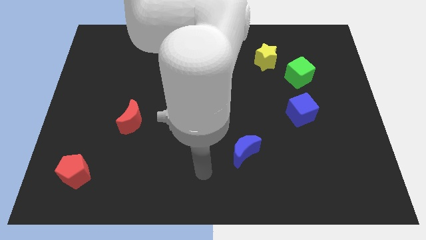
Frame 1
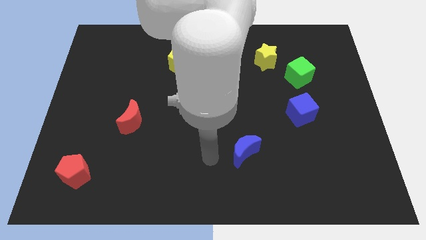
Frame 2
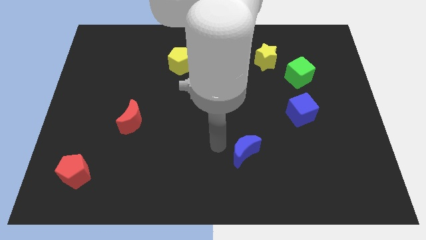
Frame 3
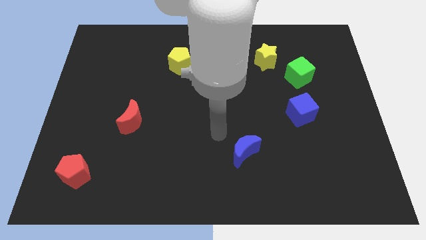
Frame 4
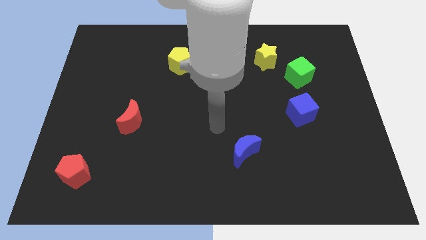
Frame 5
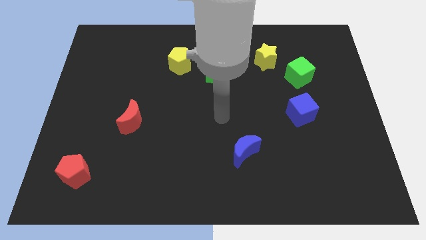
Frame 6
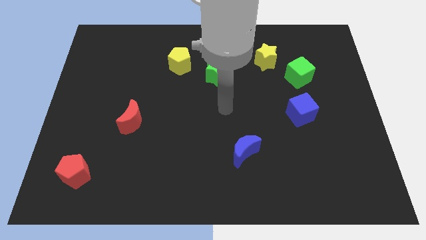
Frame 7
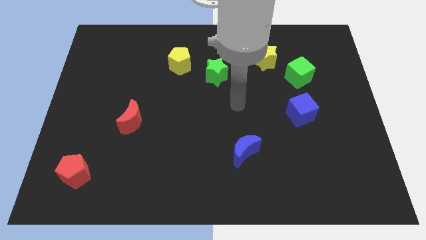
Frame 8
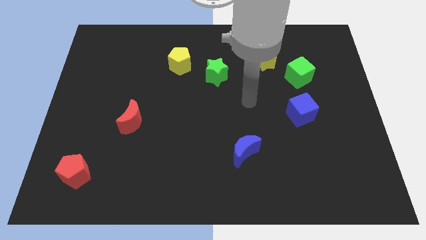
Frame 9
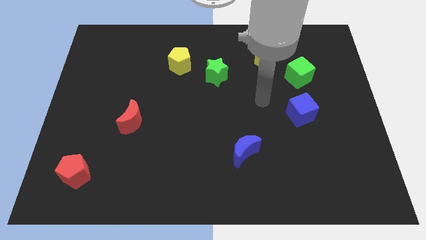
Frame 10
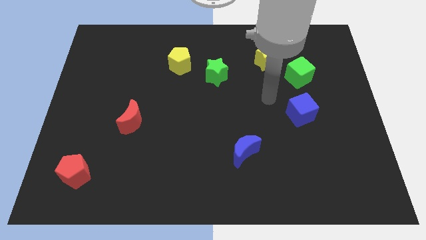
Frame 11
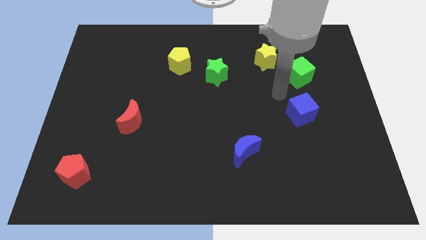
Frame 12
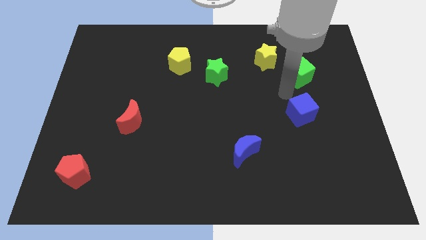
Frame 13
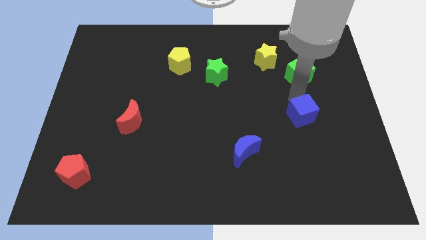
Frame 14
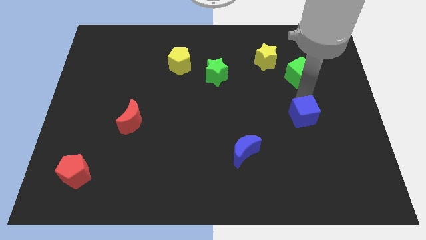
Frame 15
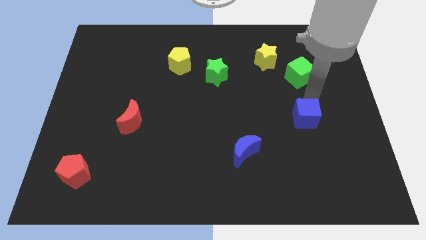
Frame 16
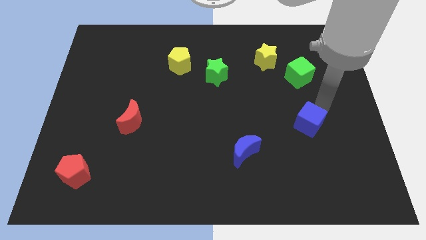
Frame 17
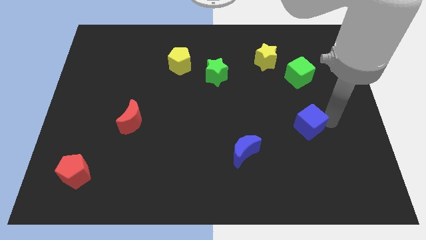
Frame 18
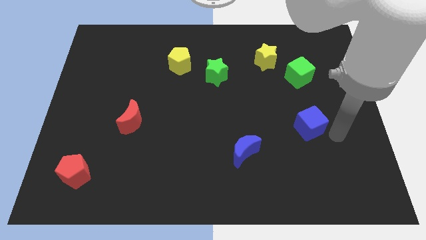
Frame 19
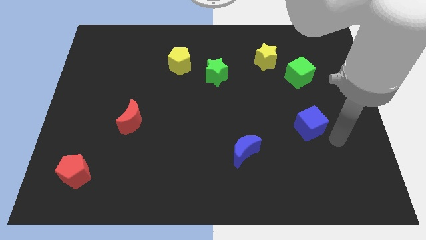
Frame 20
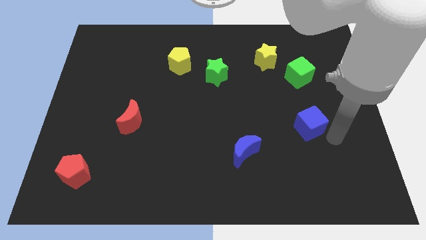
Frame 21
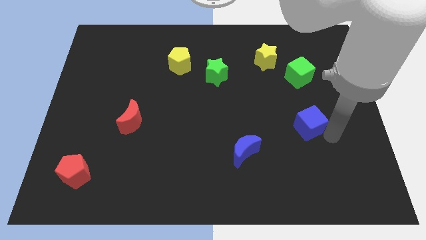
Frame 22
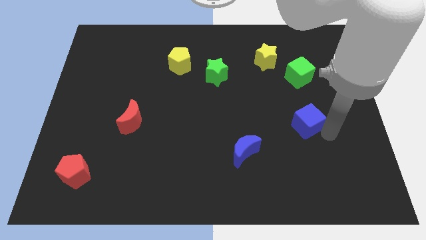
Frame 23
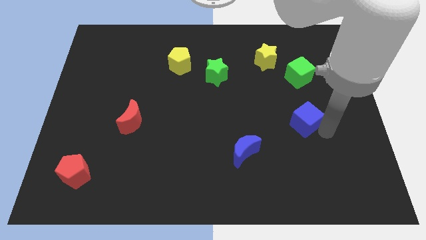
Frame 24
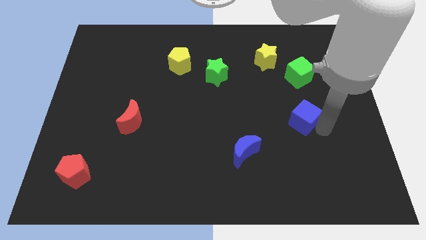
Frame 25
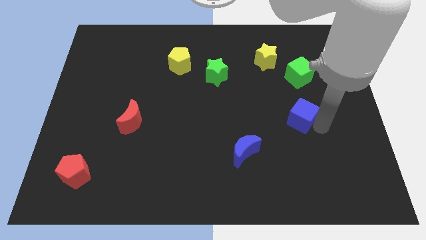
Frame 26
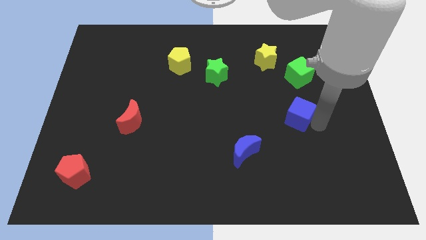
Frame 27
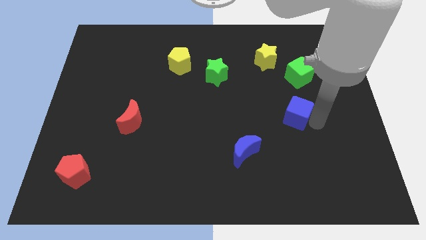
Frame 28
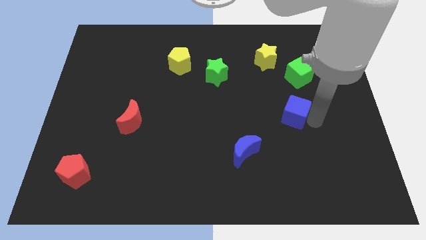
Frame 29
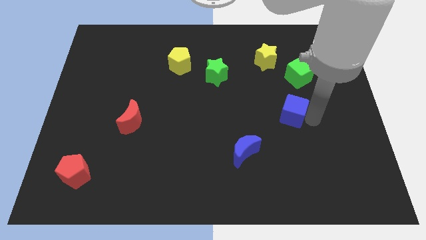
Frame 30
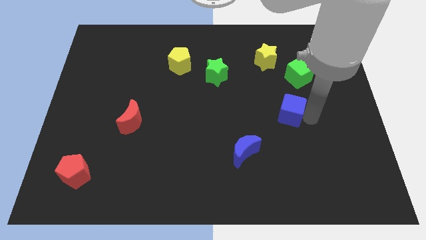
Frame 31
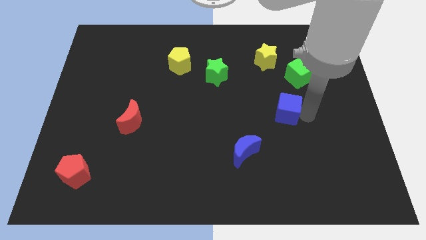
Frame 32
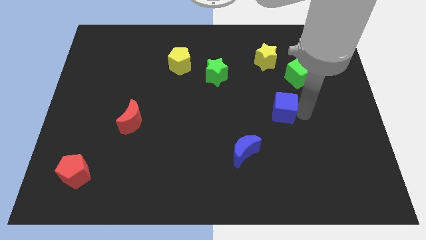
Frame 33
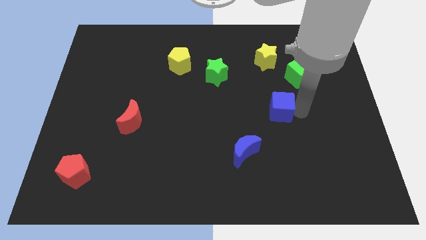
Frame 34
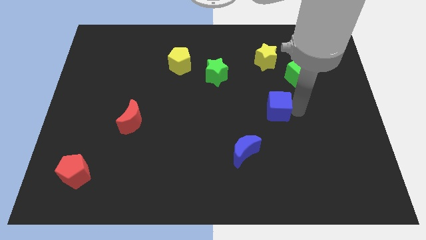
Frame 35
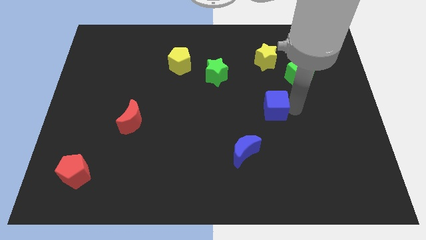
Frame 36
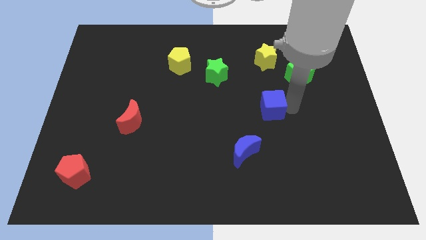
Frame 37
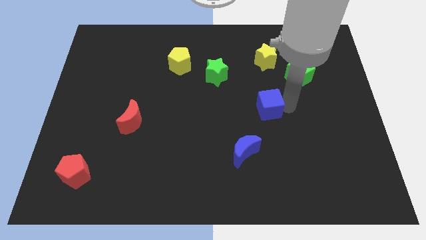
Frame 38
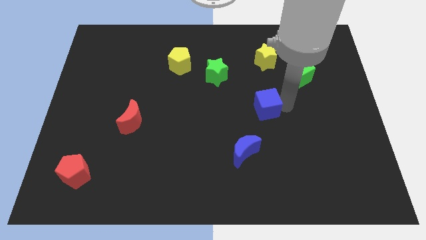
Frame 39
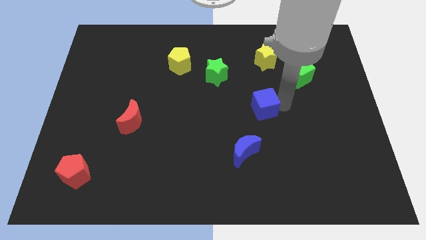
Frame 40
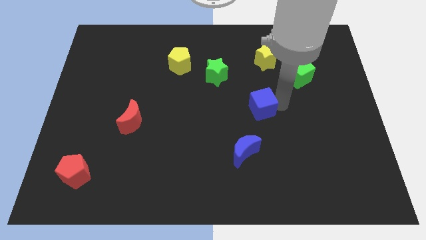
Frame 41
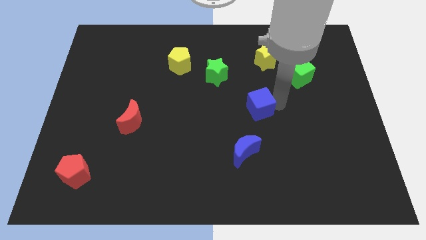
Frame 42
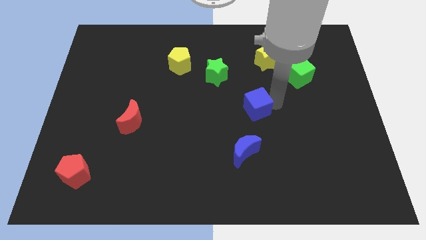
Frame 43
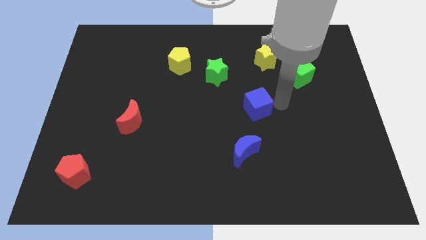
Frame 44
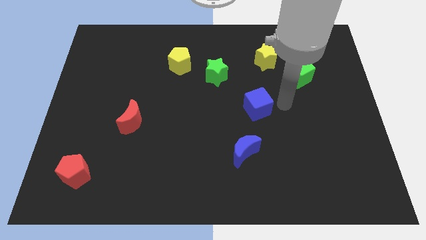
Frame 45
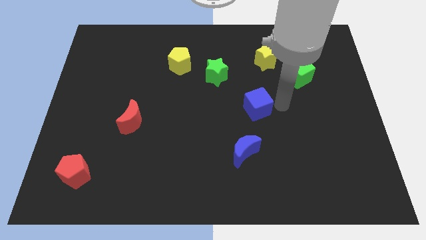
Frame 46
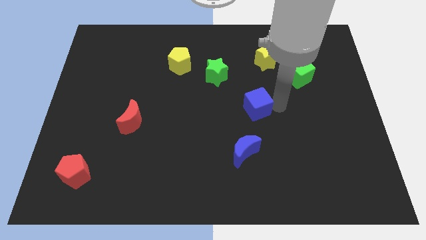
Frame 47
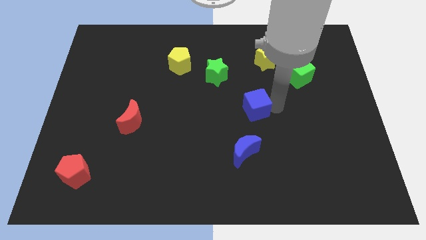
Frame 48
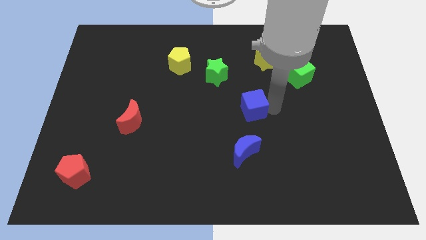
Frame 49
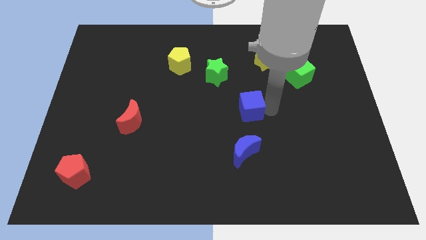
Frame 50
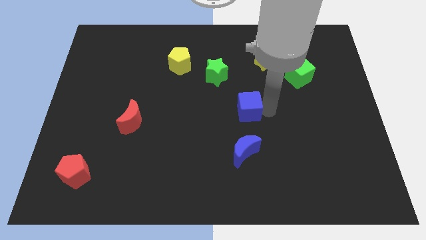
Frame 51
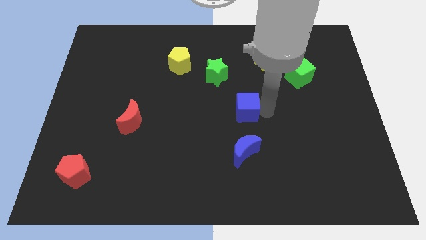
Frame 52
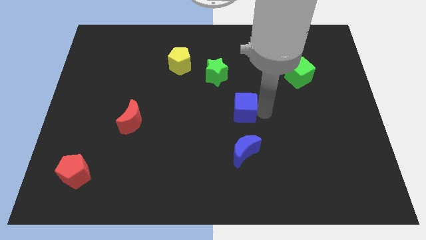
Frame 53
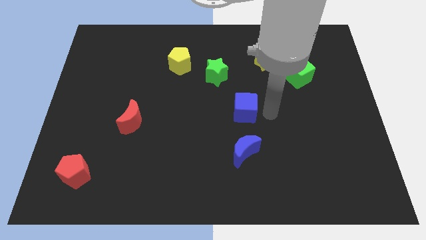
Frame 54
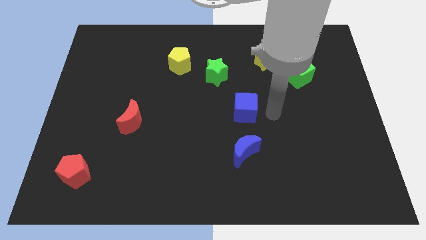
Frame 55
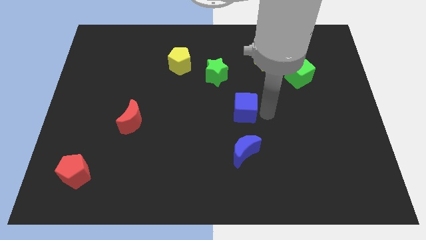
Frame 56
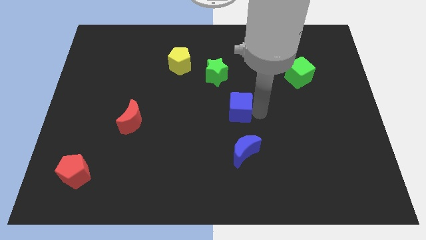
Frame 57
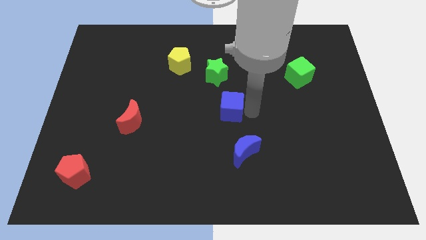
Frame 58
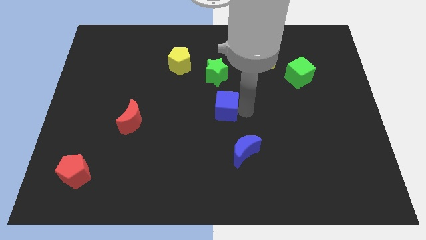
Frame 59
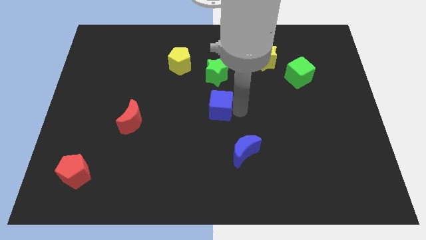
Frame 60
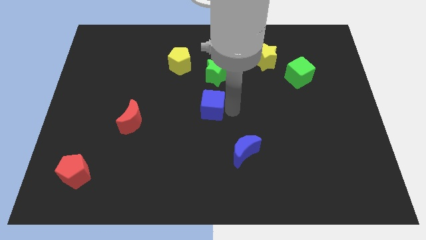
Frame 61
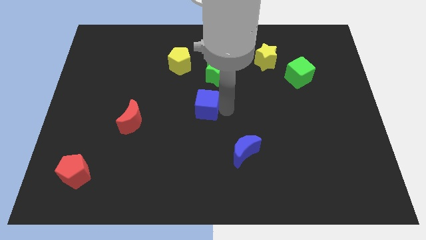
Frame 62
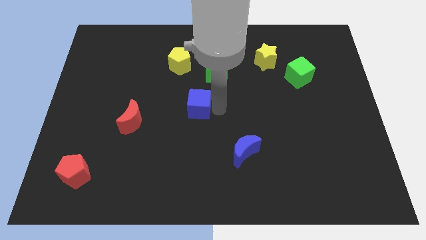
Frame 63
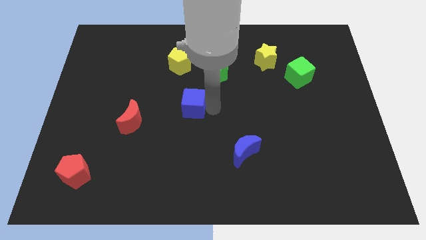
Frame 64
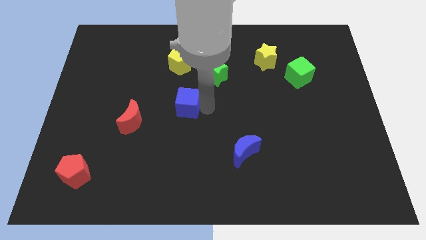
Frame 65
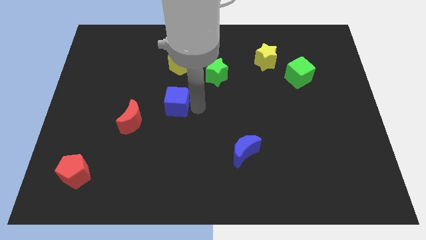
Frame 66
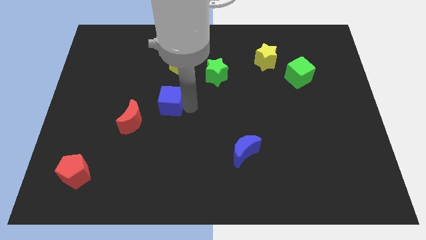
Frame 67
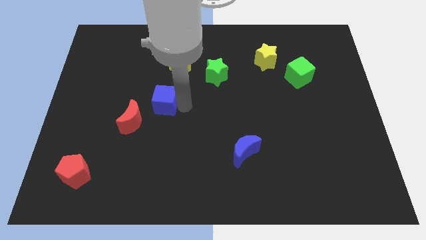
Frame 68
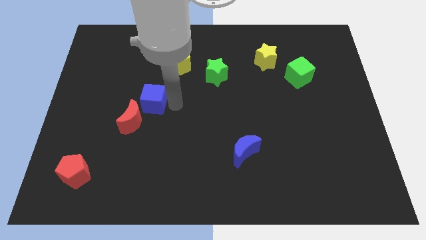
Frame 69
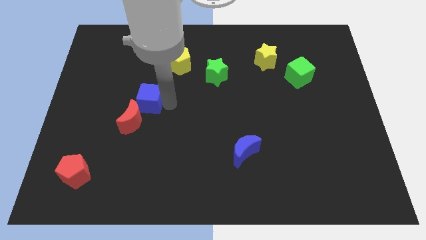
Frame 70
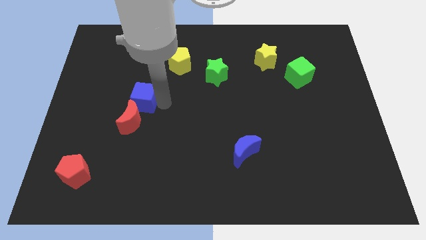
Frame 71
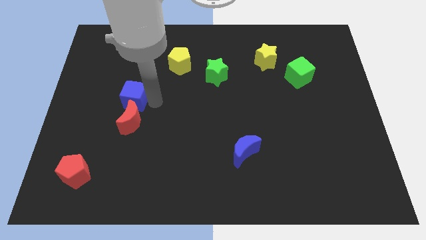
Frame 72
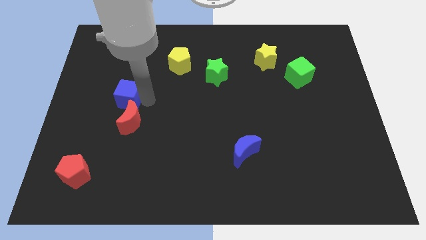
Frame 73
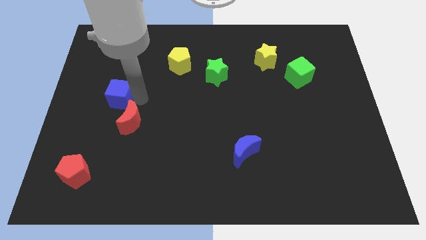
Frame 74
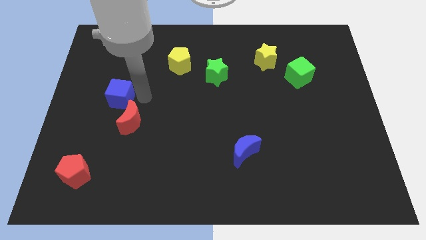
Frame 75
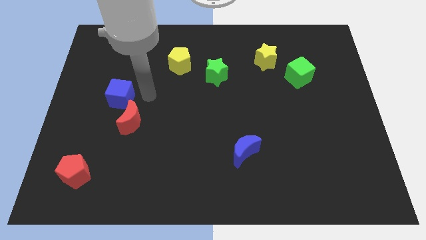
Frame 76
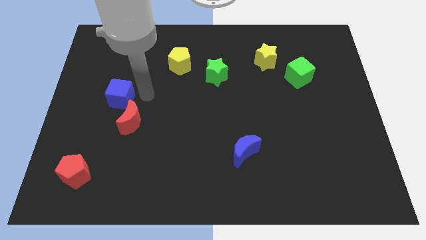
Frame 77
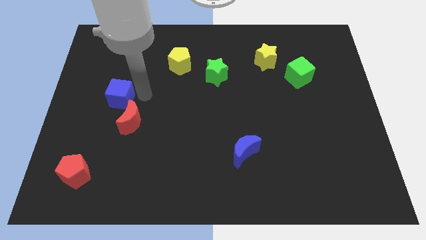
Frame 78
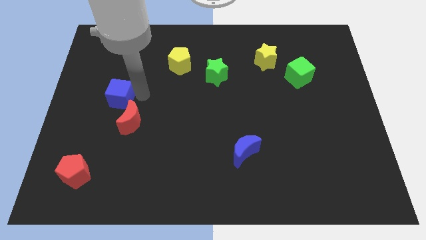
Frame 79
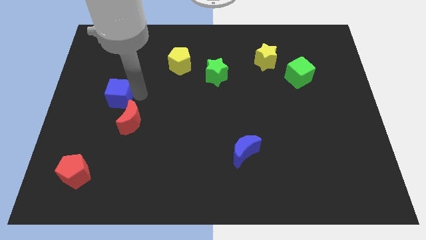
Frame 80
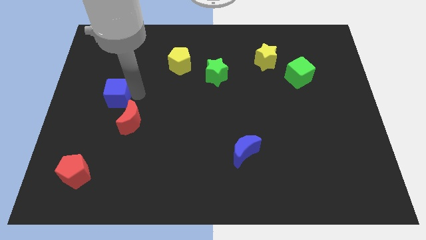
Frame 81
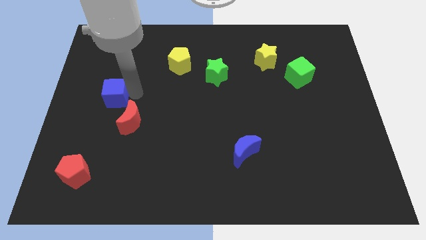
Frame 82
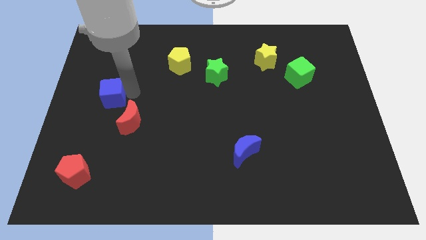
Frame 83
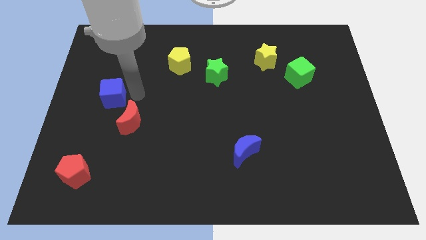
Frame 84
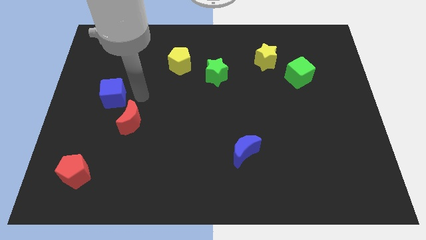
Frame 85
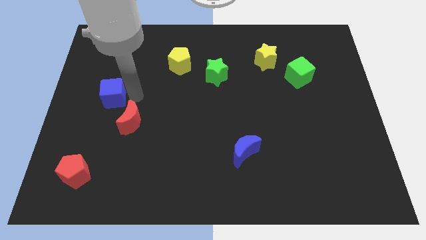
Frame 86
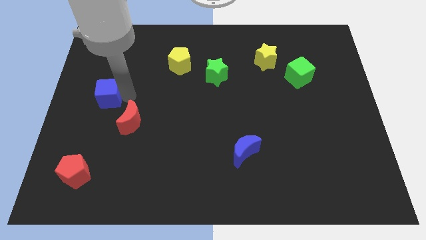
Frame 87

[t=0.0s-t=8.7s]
slide the blue cube to the left side
